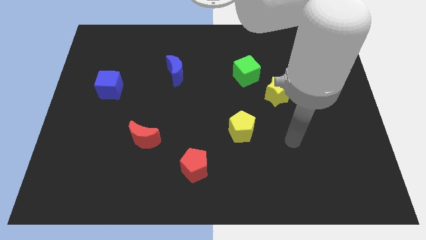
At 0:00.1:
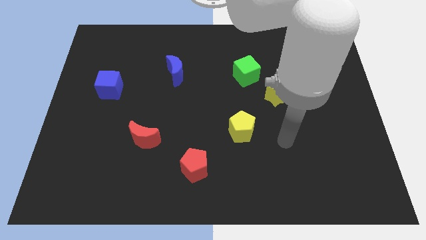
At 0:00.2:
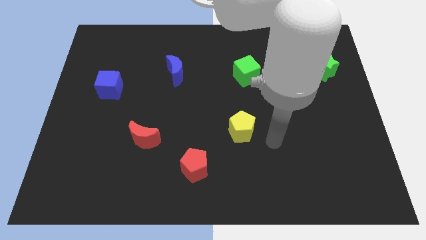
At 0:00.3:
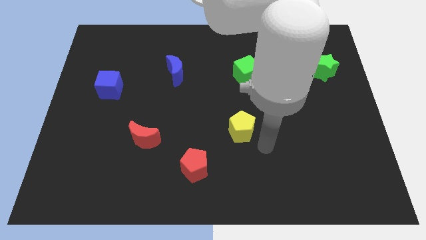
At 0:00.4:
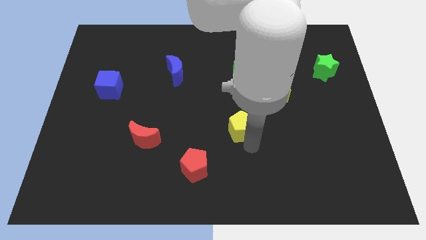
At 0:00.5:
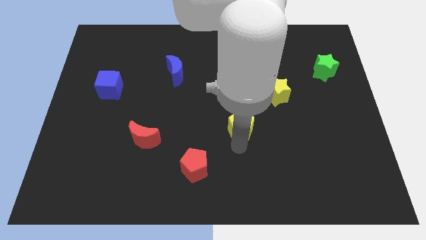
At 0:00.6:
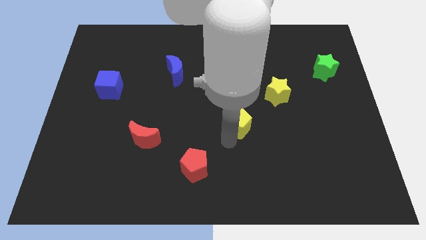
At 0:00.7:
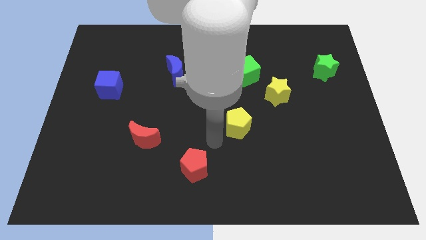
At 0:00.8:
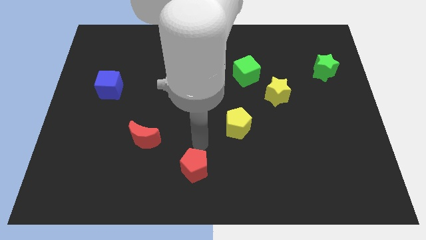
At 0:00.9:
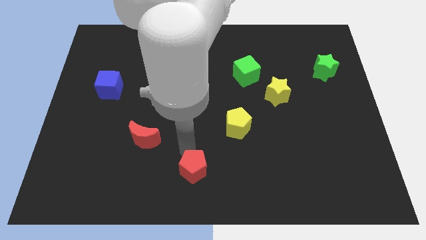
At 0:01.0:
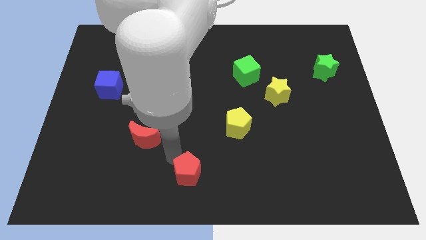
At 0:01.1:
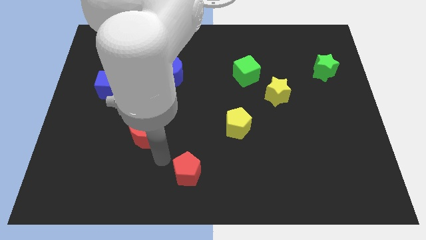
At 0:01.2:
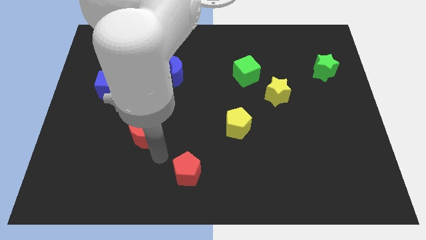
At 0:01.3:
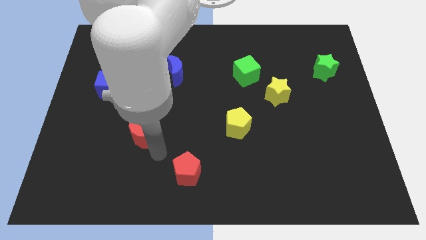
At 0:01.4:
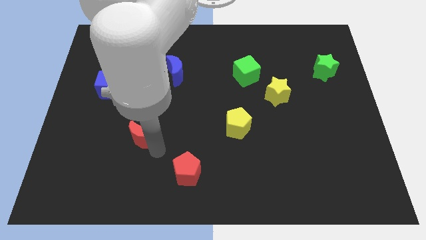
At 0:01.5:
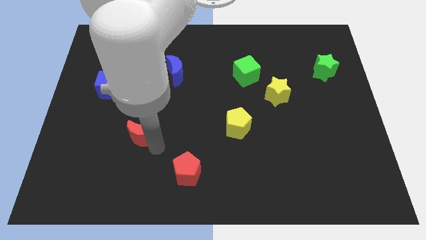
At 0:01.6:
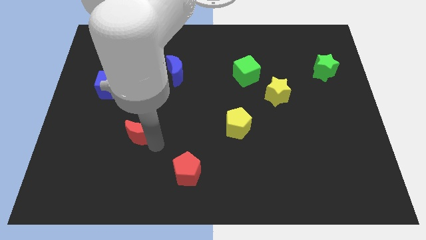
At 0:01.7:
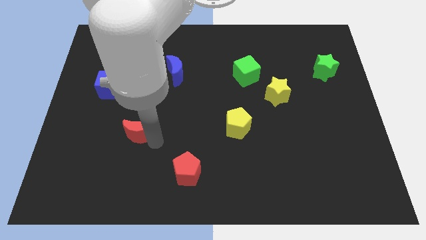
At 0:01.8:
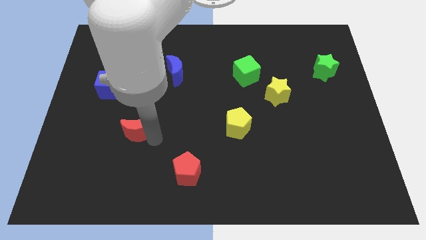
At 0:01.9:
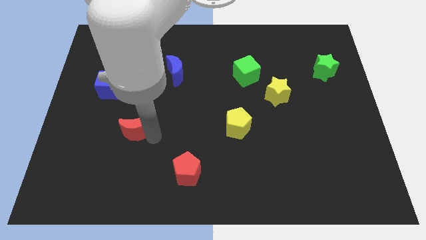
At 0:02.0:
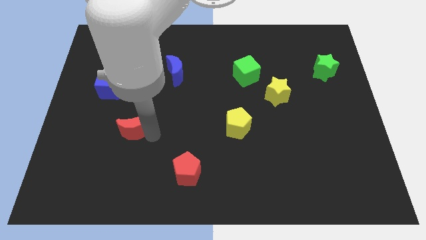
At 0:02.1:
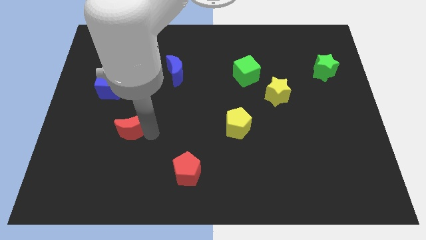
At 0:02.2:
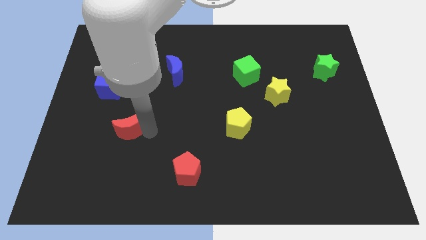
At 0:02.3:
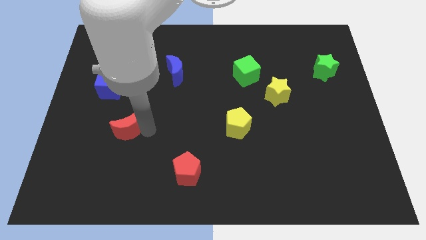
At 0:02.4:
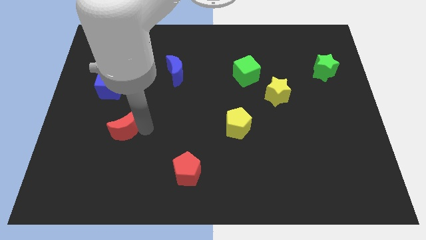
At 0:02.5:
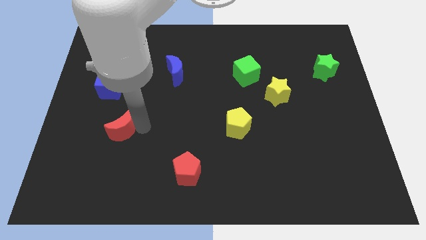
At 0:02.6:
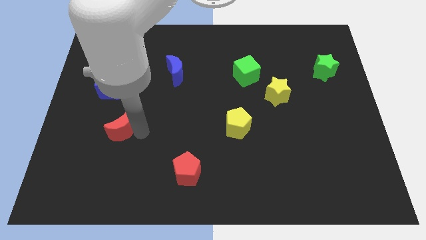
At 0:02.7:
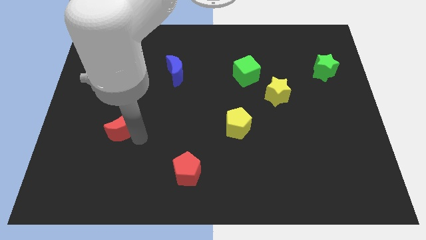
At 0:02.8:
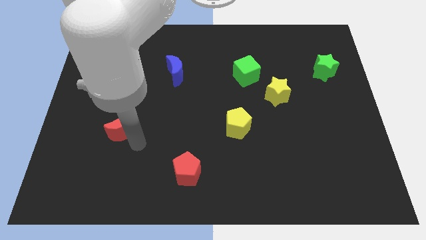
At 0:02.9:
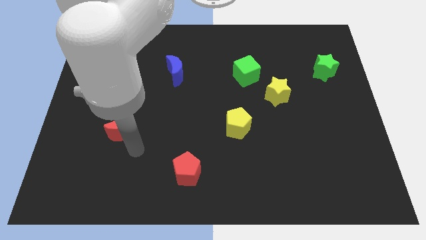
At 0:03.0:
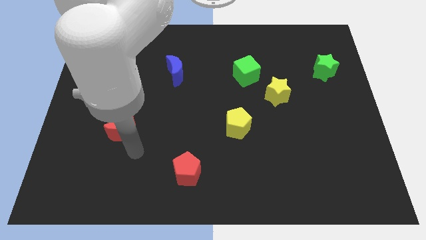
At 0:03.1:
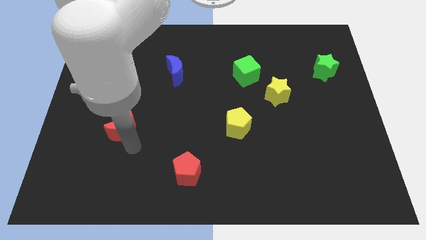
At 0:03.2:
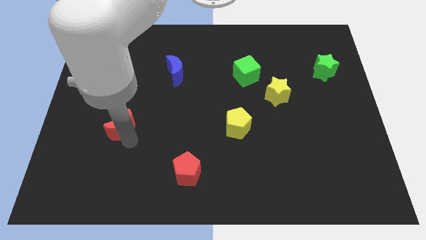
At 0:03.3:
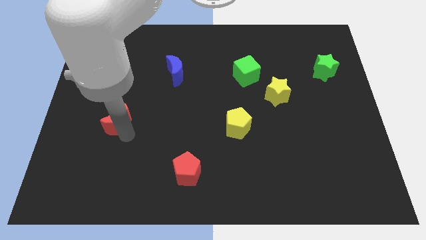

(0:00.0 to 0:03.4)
slightly push the red moon upwards and left diagonally

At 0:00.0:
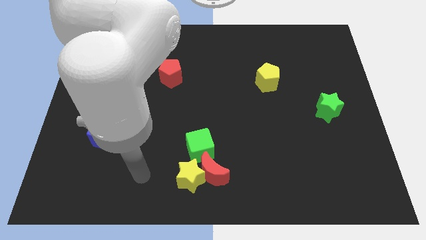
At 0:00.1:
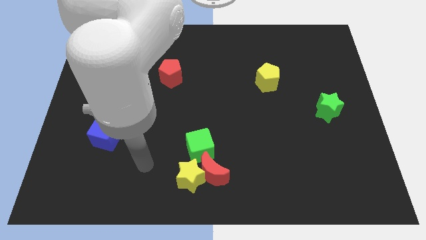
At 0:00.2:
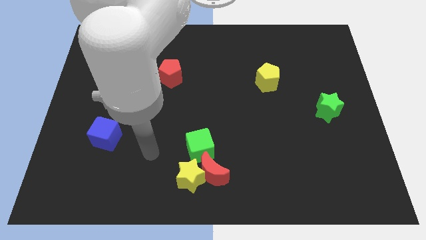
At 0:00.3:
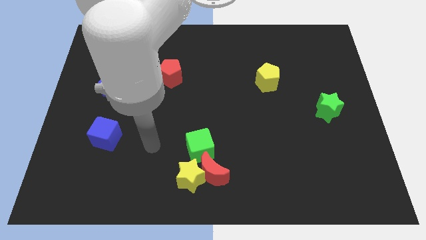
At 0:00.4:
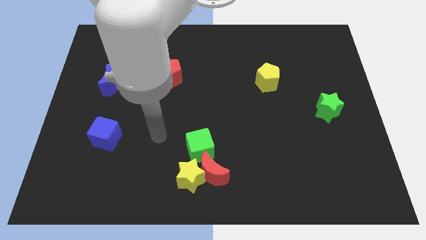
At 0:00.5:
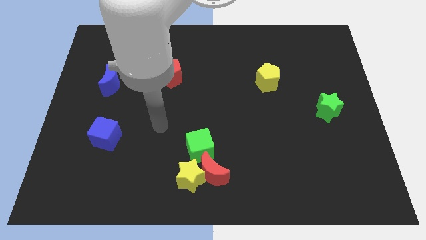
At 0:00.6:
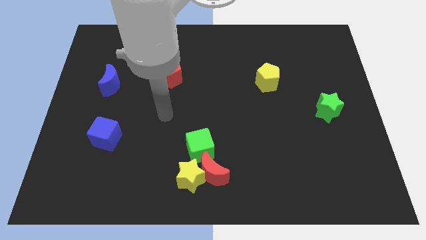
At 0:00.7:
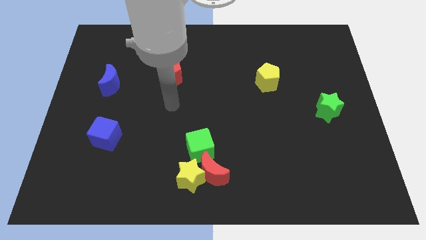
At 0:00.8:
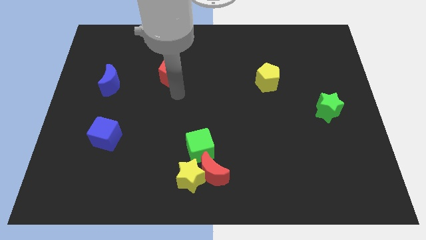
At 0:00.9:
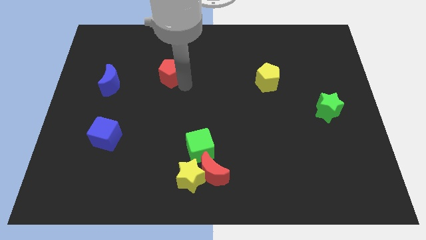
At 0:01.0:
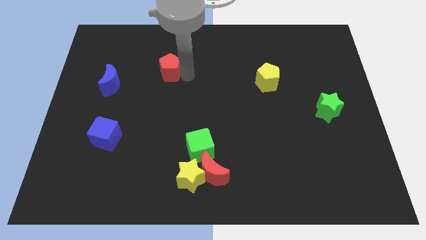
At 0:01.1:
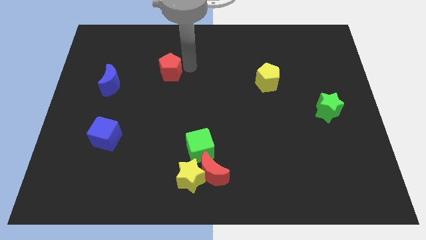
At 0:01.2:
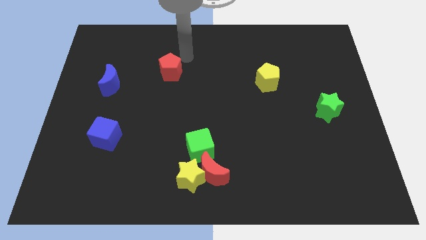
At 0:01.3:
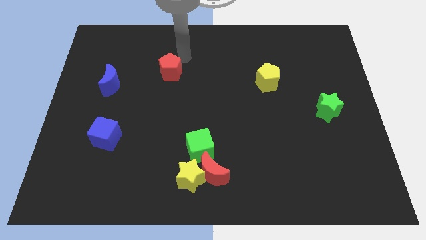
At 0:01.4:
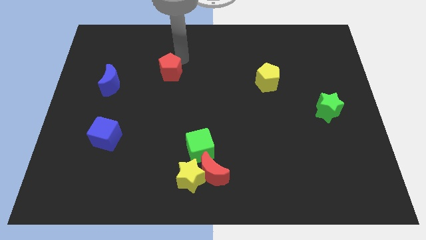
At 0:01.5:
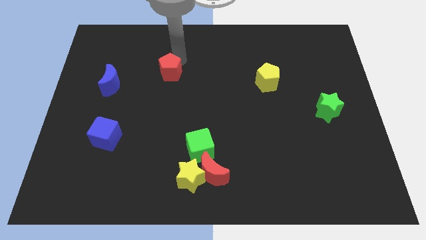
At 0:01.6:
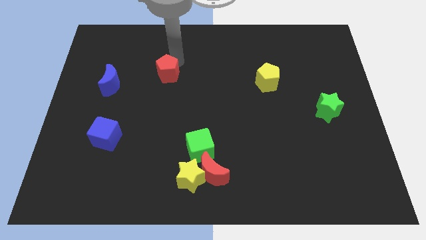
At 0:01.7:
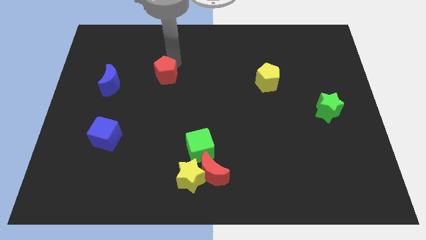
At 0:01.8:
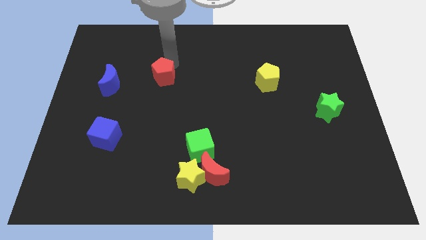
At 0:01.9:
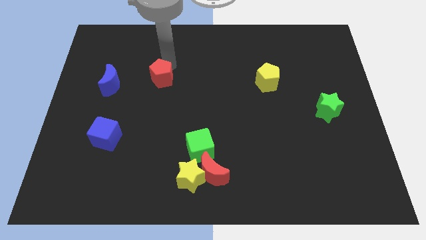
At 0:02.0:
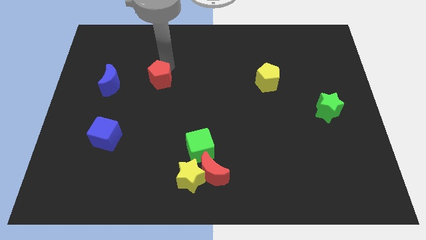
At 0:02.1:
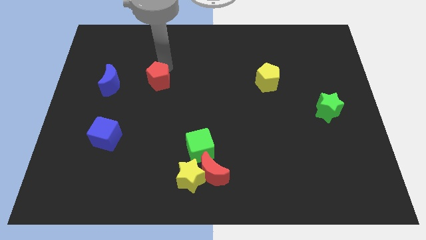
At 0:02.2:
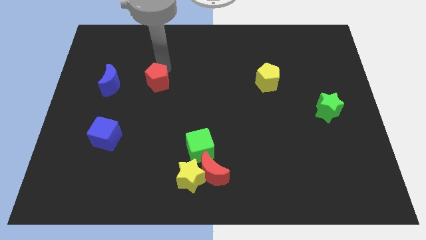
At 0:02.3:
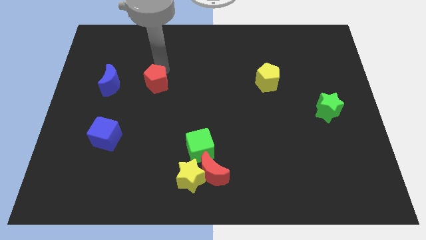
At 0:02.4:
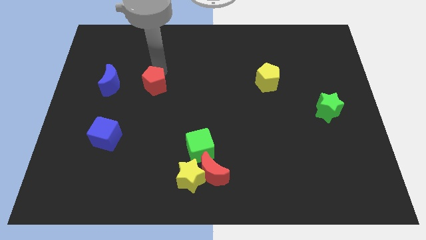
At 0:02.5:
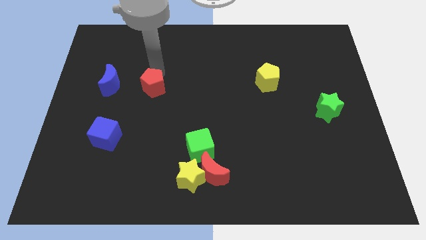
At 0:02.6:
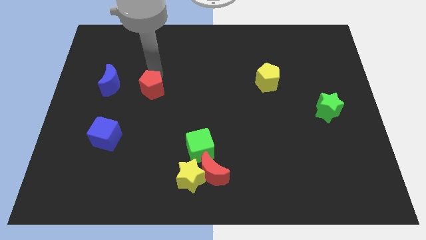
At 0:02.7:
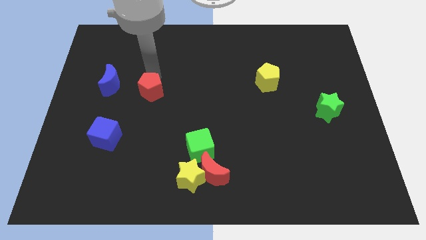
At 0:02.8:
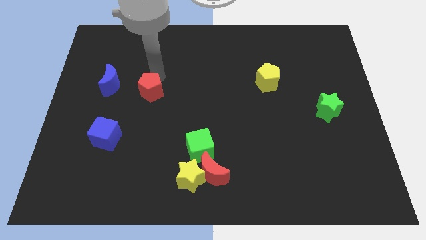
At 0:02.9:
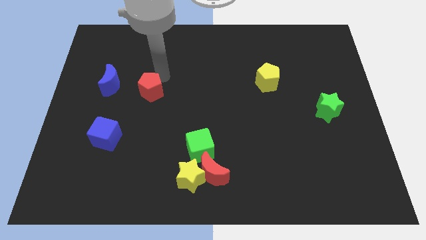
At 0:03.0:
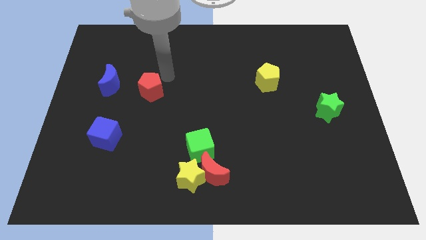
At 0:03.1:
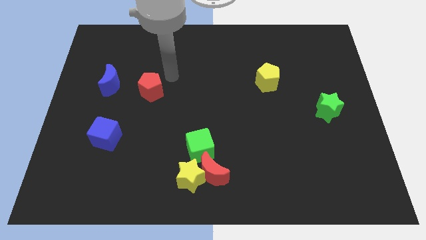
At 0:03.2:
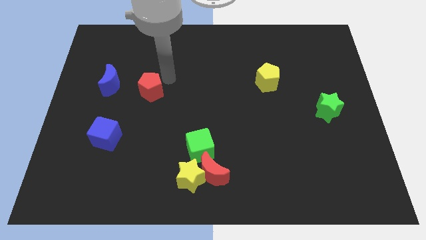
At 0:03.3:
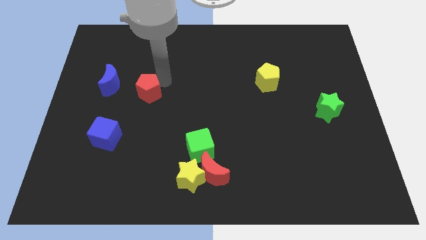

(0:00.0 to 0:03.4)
slide the red pentagon diagonally down and to the left slightly

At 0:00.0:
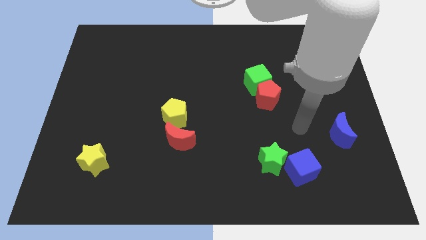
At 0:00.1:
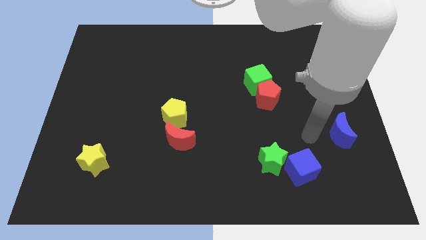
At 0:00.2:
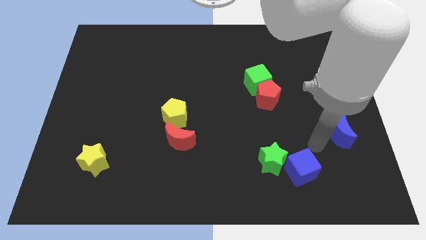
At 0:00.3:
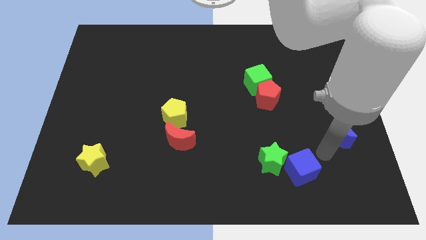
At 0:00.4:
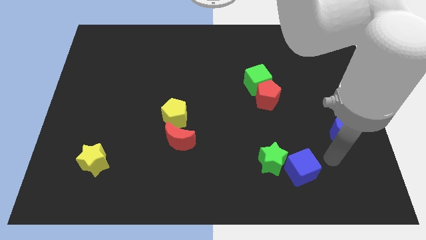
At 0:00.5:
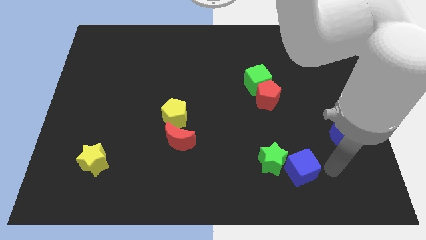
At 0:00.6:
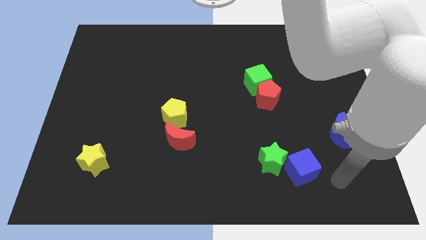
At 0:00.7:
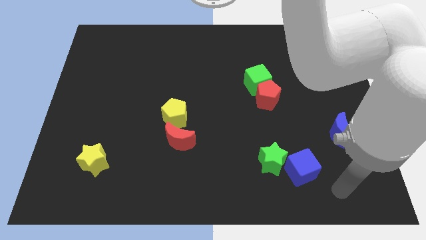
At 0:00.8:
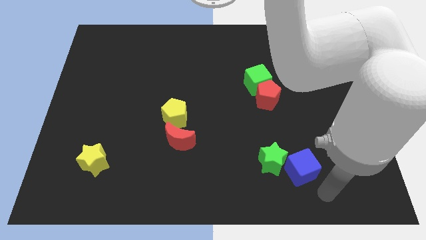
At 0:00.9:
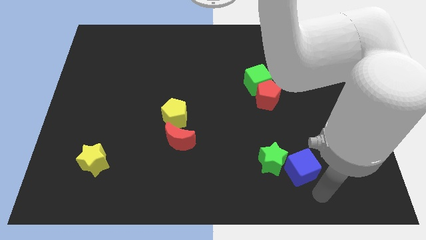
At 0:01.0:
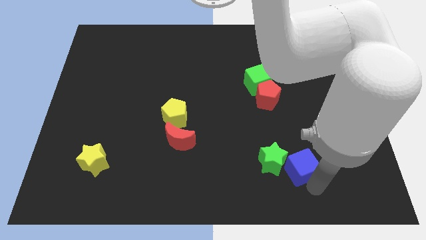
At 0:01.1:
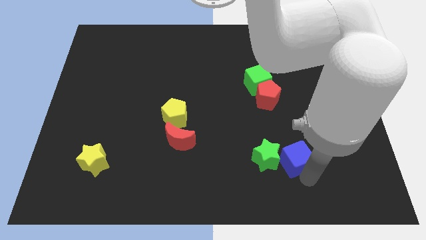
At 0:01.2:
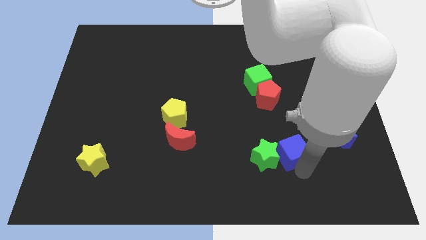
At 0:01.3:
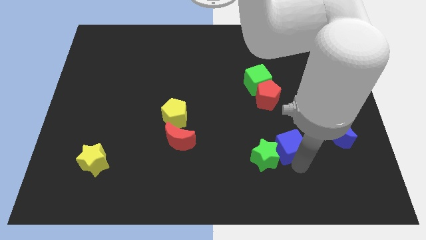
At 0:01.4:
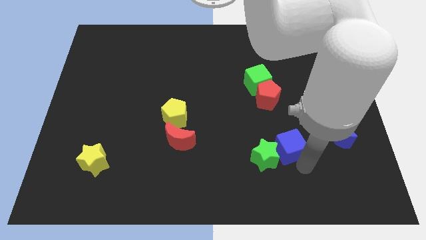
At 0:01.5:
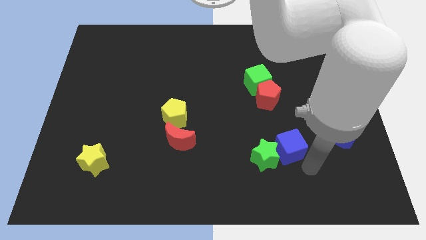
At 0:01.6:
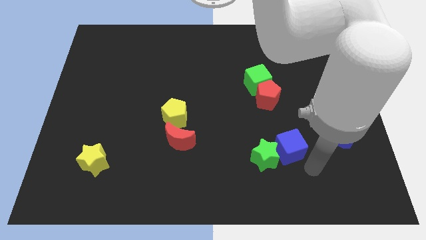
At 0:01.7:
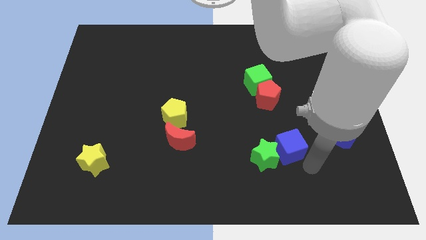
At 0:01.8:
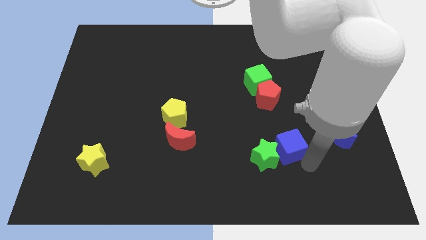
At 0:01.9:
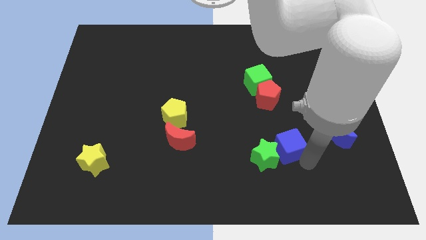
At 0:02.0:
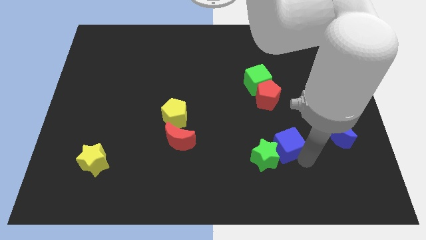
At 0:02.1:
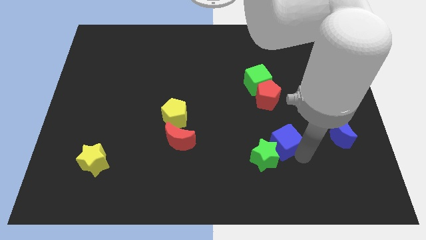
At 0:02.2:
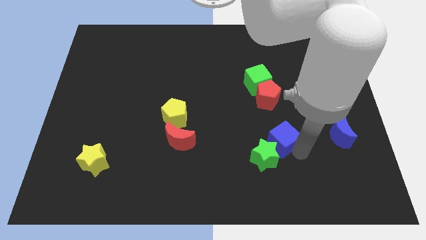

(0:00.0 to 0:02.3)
move the blue cube slightly diagonally upwards and left
